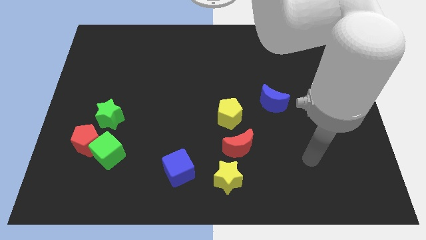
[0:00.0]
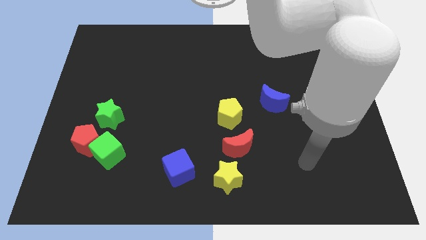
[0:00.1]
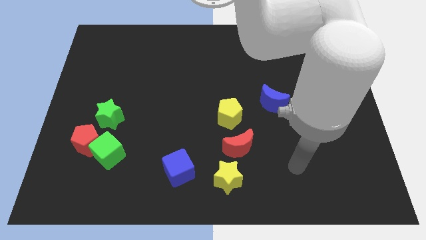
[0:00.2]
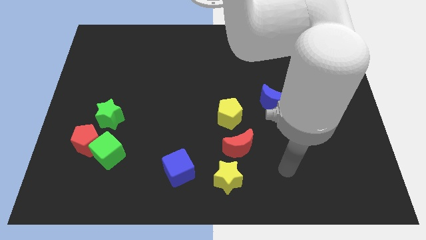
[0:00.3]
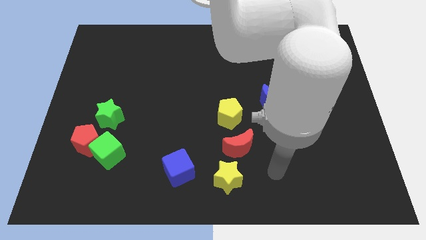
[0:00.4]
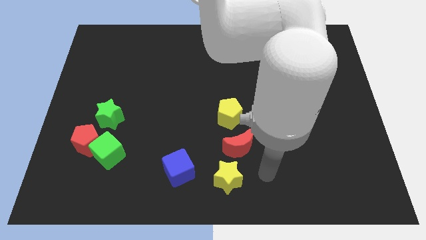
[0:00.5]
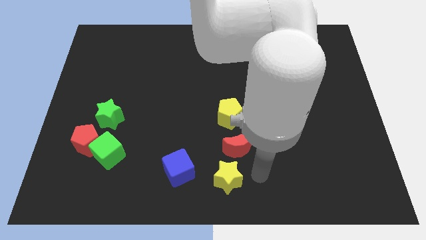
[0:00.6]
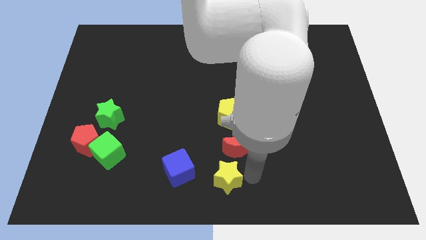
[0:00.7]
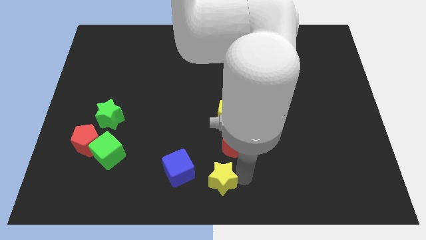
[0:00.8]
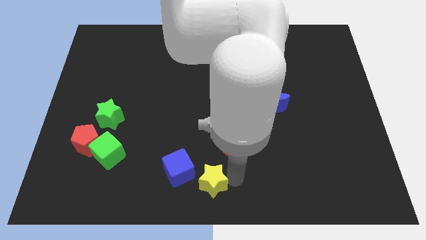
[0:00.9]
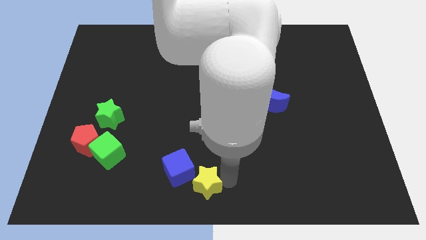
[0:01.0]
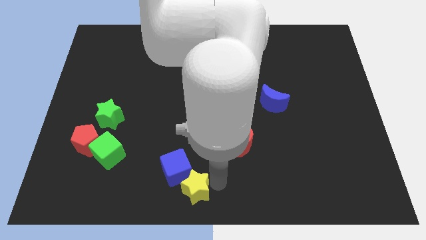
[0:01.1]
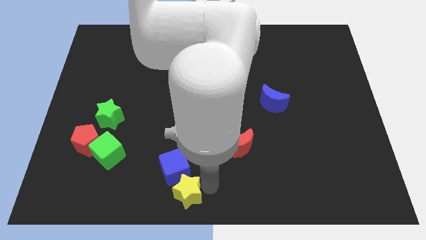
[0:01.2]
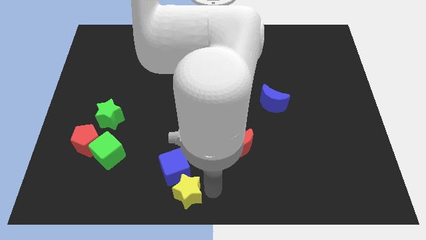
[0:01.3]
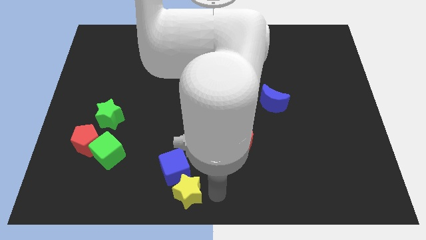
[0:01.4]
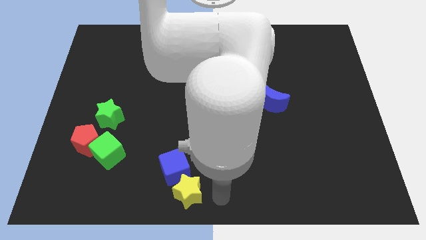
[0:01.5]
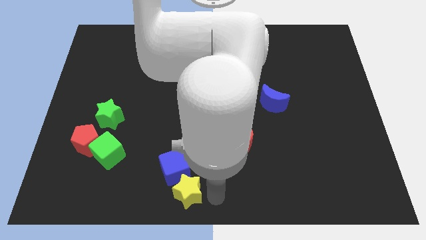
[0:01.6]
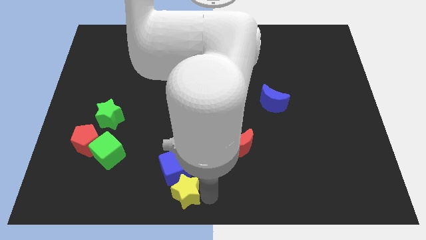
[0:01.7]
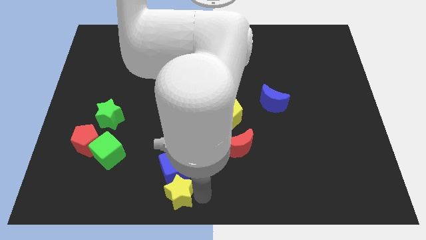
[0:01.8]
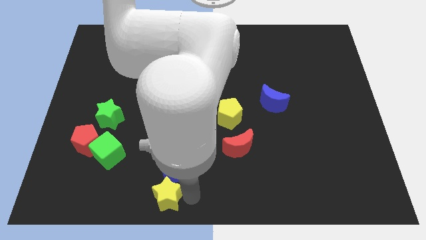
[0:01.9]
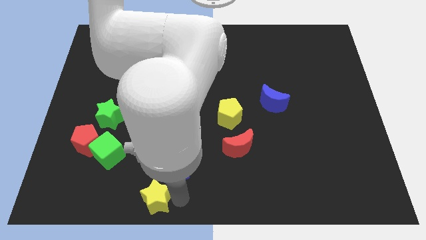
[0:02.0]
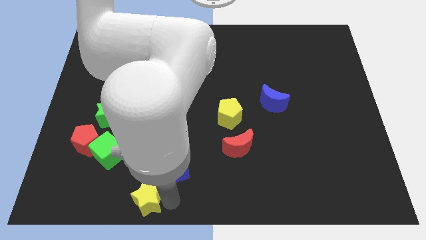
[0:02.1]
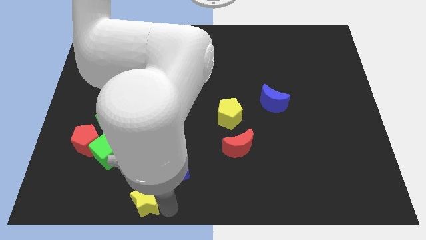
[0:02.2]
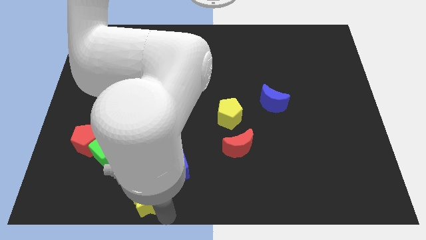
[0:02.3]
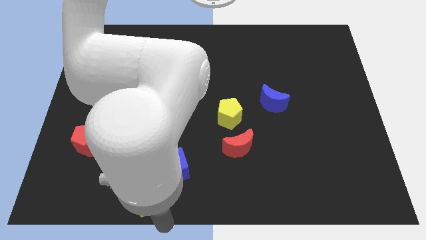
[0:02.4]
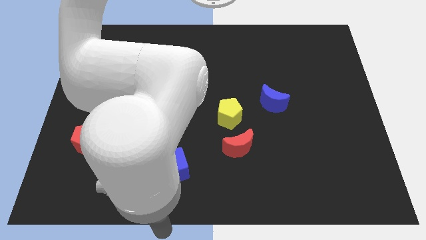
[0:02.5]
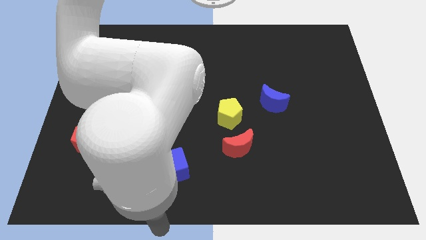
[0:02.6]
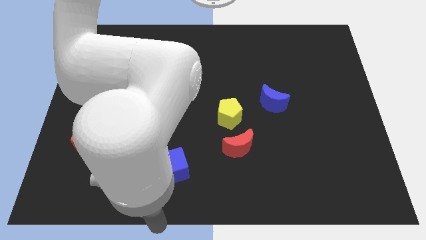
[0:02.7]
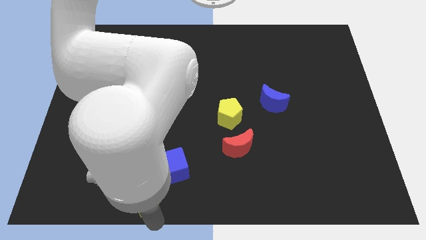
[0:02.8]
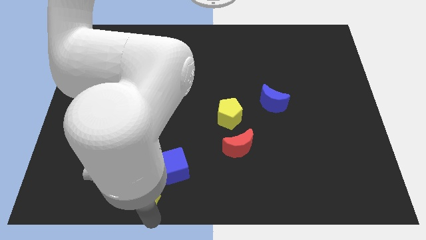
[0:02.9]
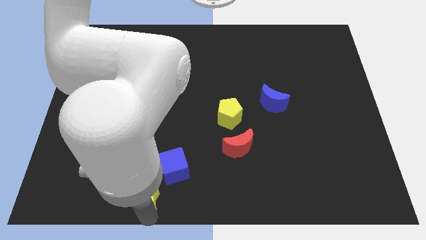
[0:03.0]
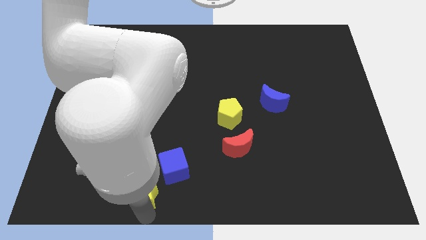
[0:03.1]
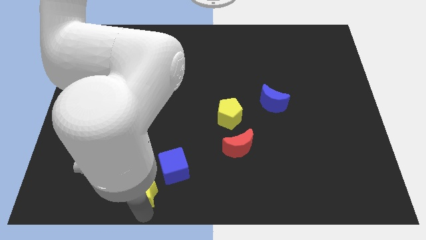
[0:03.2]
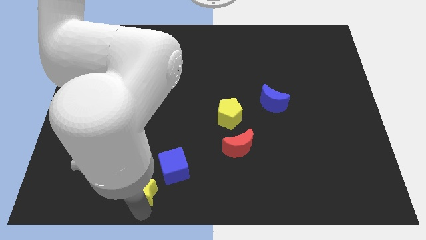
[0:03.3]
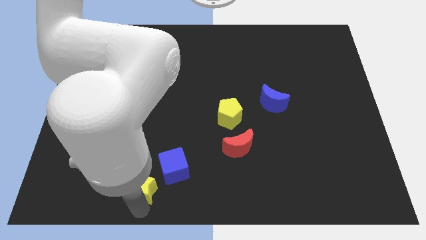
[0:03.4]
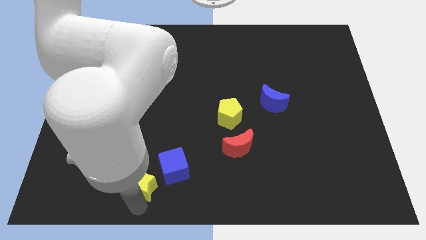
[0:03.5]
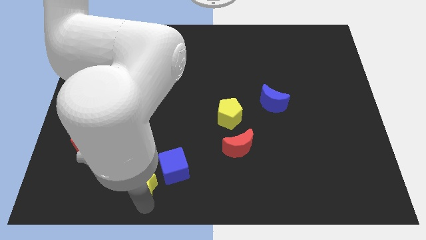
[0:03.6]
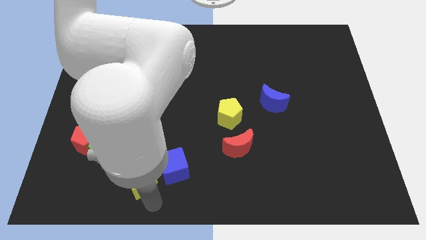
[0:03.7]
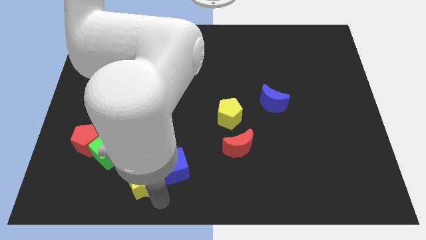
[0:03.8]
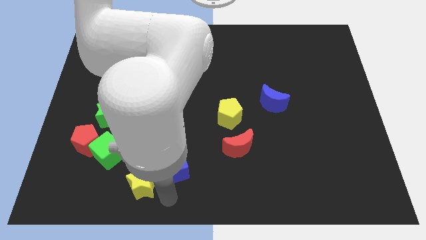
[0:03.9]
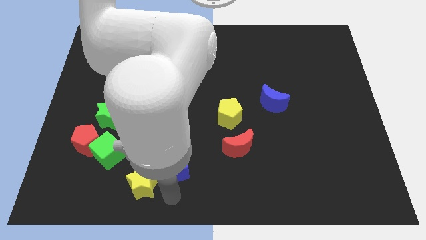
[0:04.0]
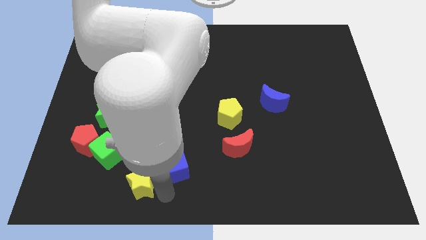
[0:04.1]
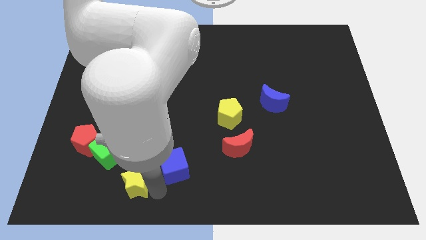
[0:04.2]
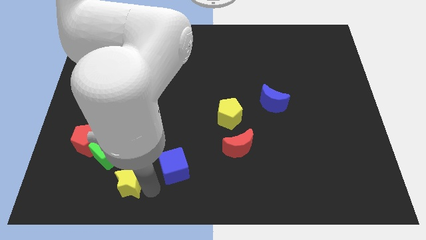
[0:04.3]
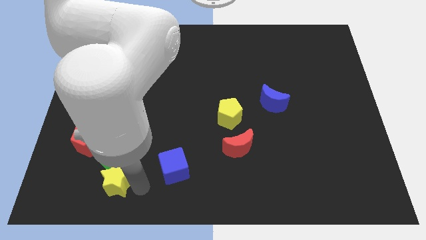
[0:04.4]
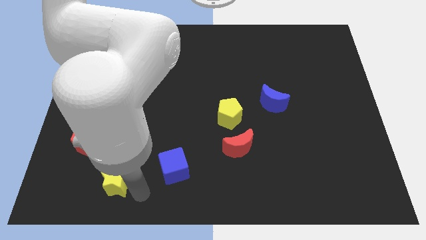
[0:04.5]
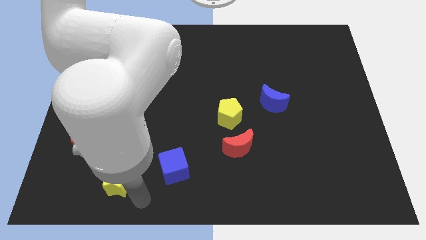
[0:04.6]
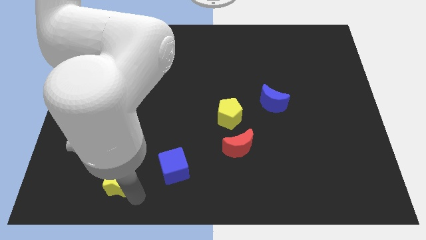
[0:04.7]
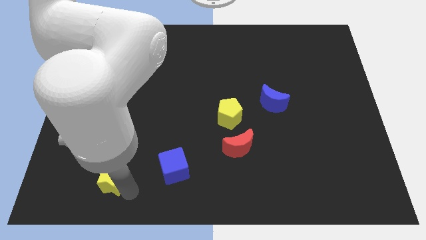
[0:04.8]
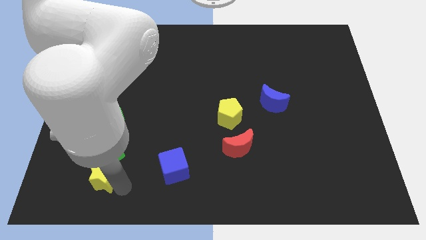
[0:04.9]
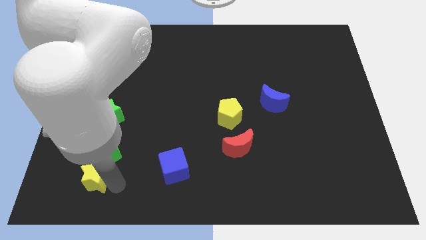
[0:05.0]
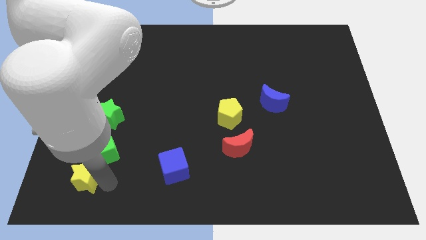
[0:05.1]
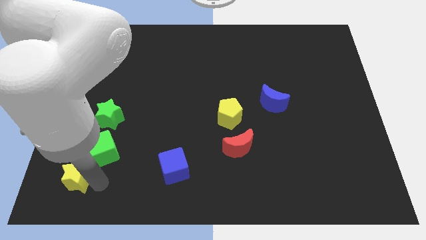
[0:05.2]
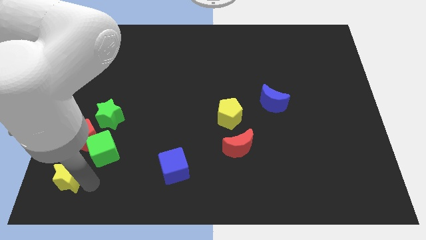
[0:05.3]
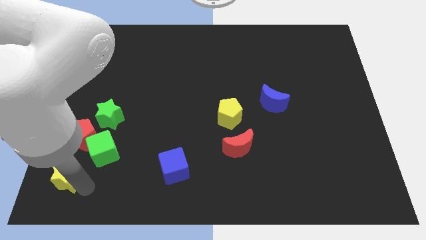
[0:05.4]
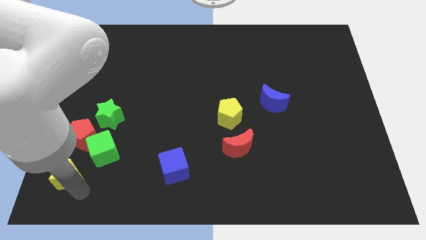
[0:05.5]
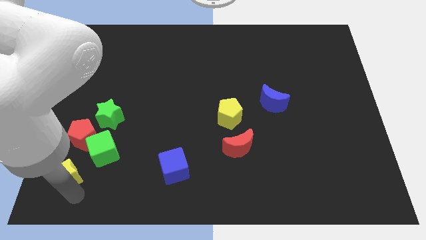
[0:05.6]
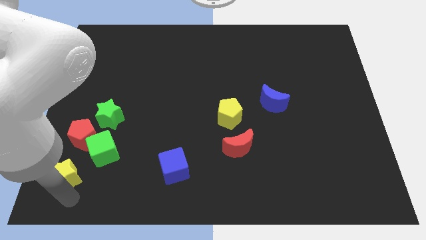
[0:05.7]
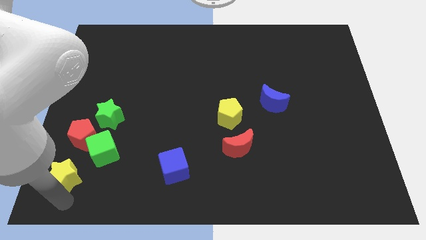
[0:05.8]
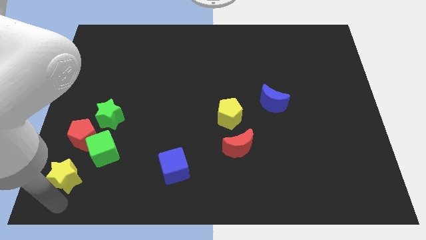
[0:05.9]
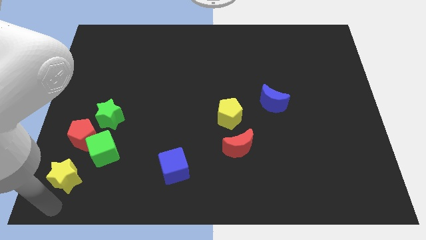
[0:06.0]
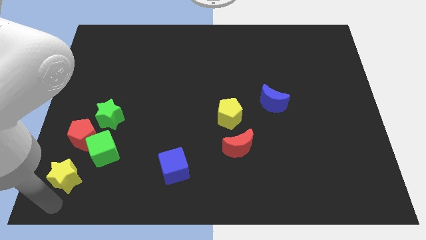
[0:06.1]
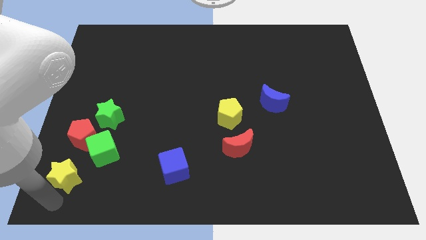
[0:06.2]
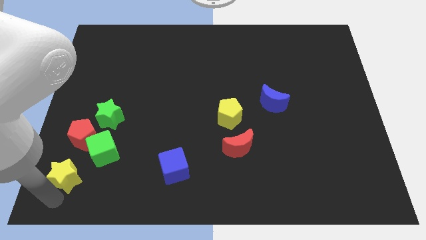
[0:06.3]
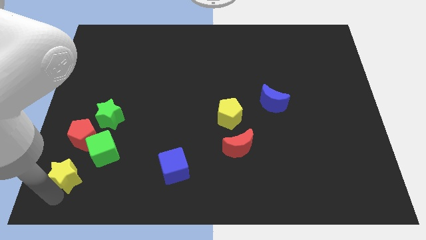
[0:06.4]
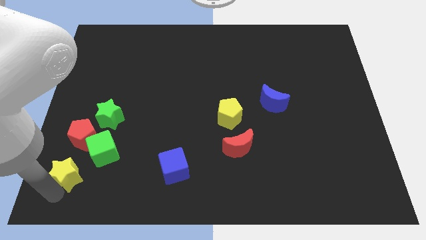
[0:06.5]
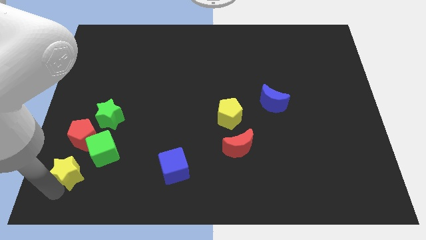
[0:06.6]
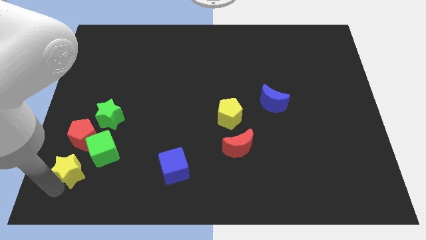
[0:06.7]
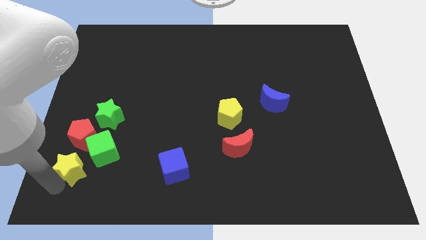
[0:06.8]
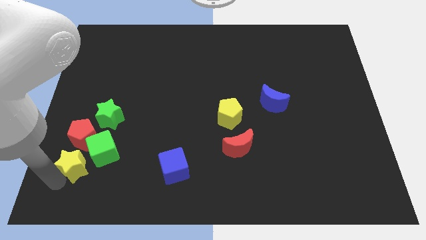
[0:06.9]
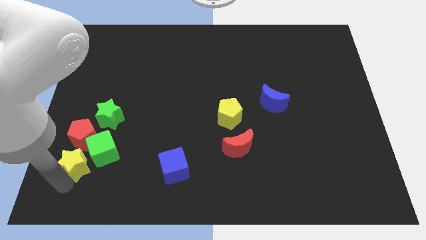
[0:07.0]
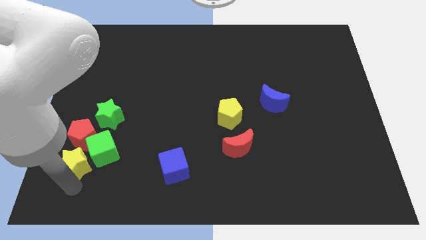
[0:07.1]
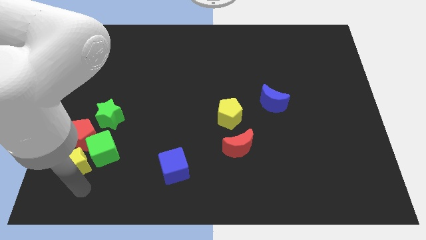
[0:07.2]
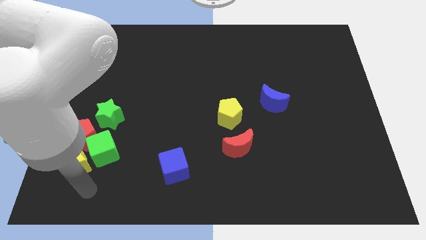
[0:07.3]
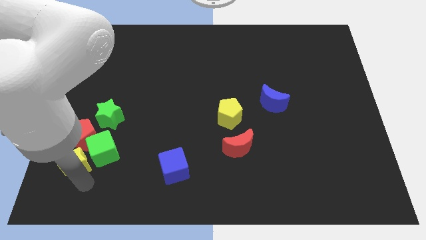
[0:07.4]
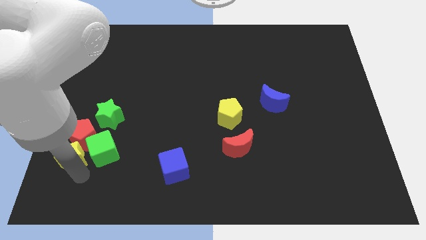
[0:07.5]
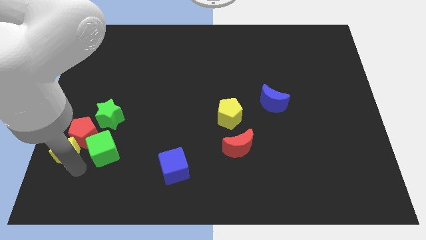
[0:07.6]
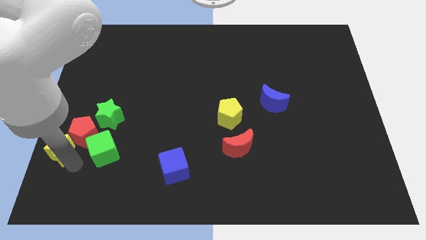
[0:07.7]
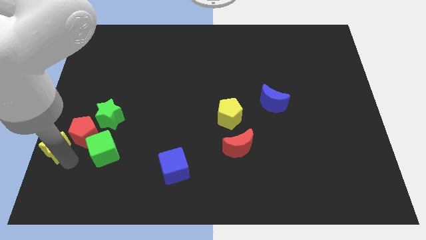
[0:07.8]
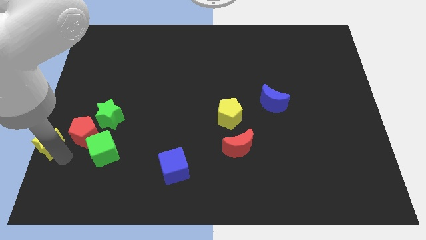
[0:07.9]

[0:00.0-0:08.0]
put the yellow star to the left side
